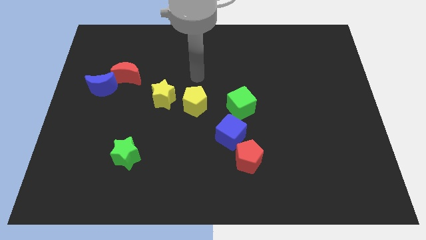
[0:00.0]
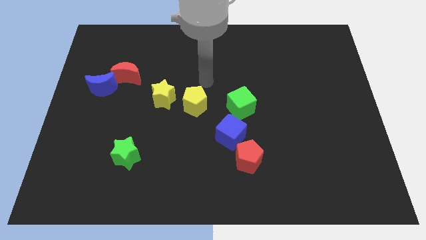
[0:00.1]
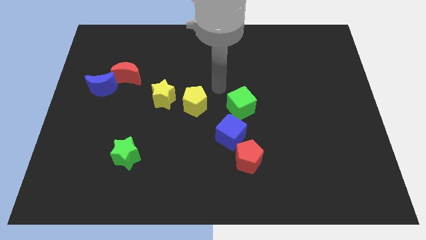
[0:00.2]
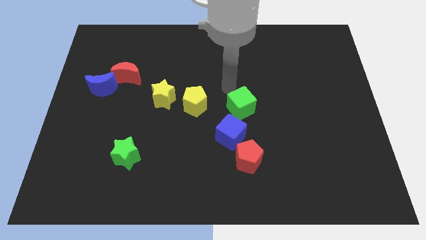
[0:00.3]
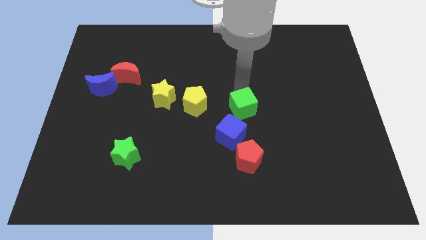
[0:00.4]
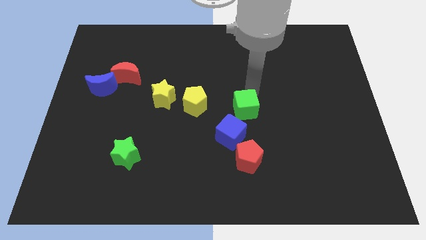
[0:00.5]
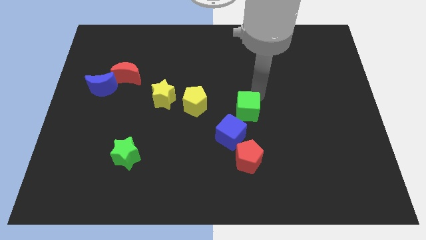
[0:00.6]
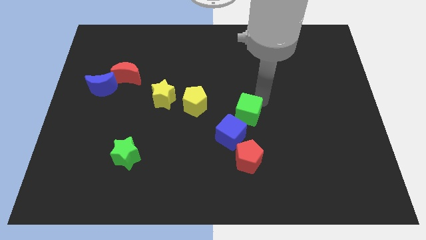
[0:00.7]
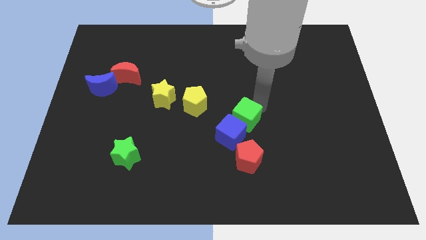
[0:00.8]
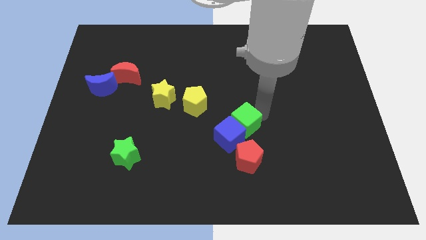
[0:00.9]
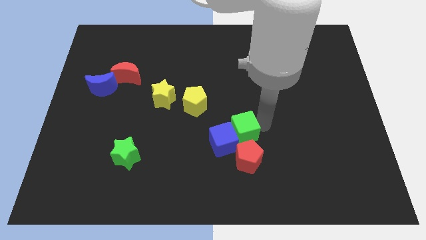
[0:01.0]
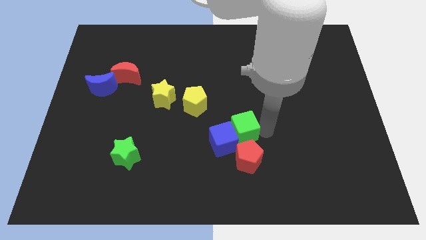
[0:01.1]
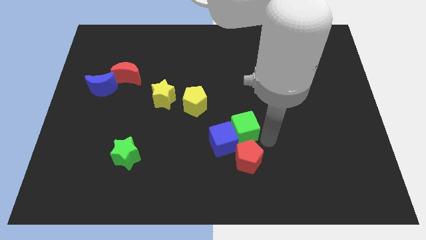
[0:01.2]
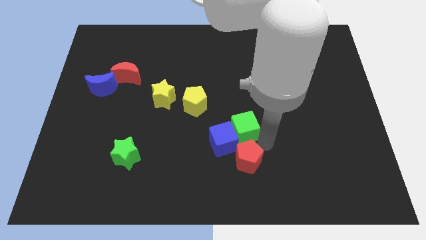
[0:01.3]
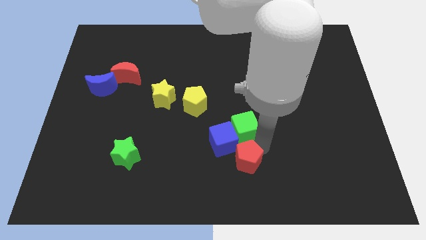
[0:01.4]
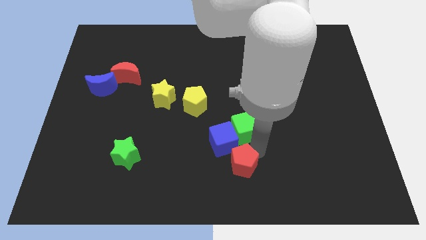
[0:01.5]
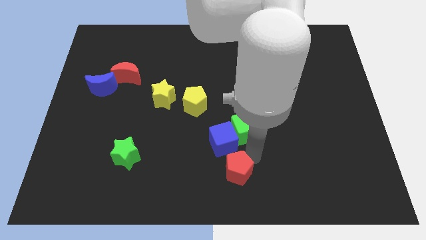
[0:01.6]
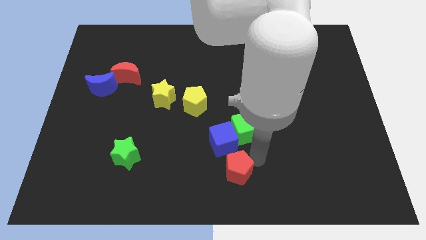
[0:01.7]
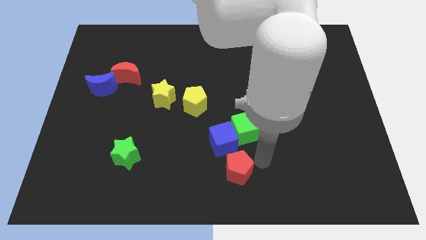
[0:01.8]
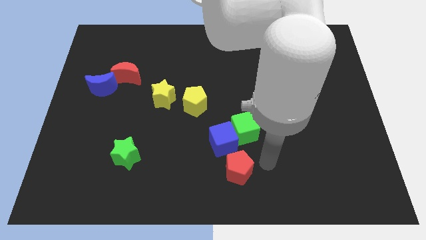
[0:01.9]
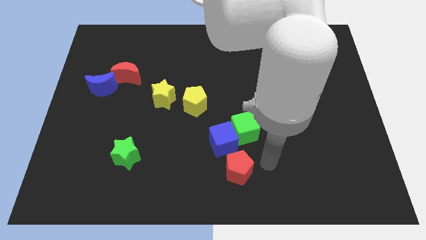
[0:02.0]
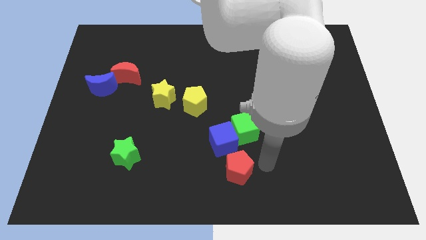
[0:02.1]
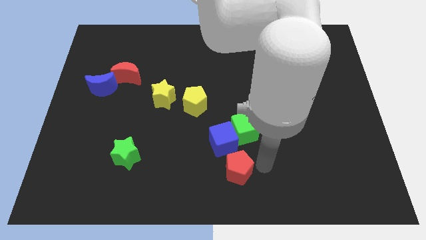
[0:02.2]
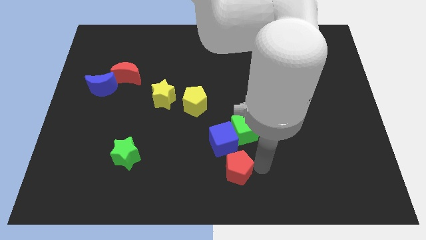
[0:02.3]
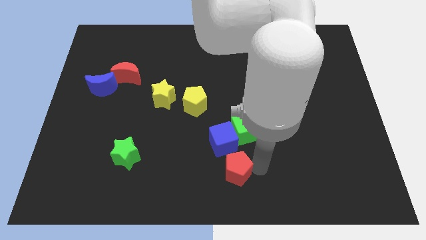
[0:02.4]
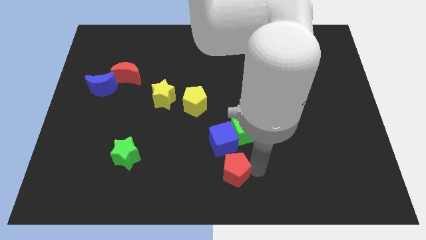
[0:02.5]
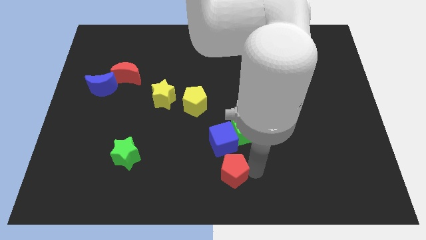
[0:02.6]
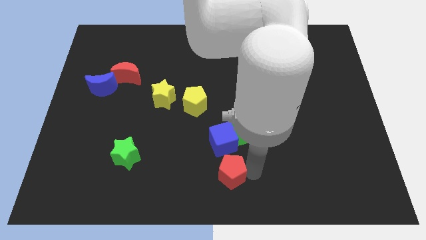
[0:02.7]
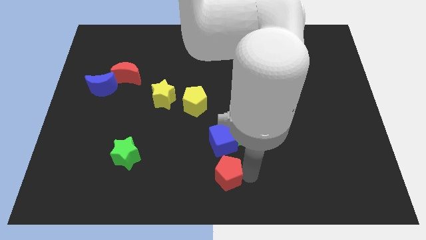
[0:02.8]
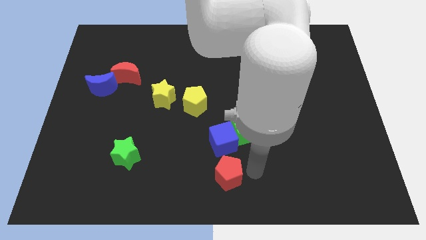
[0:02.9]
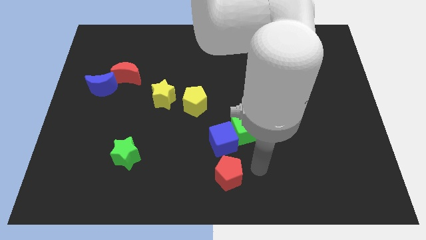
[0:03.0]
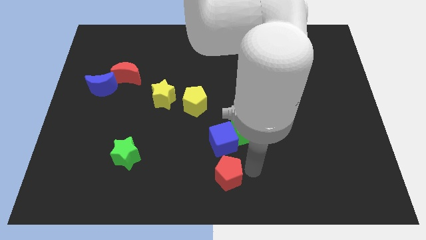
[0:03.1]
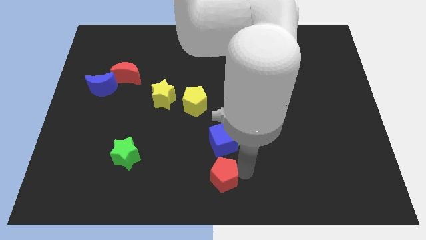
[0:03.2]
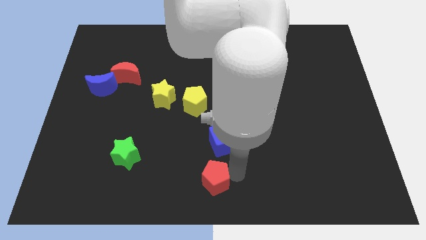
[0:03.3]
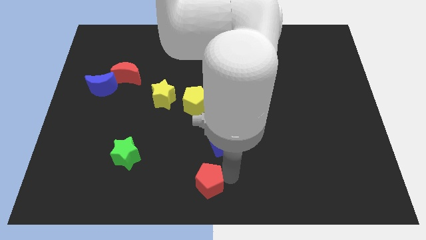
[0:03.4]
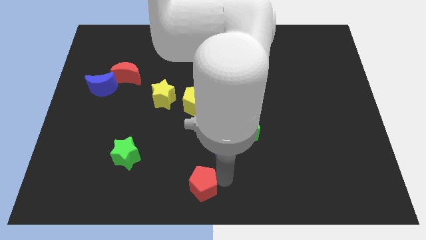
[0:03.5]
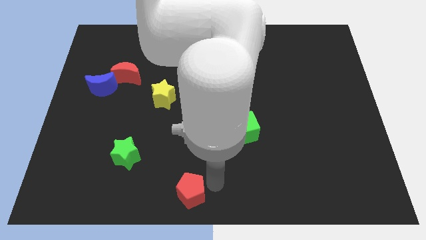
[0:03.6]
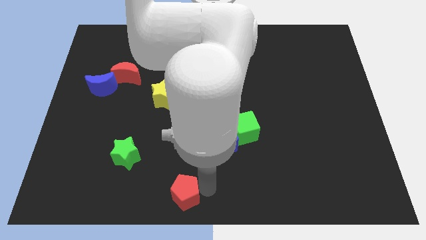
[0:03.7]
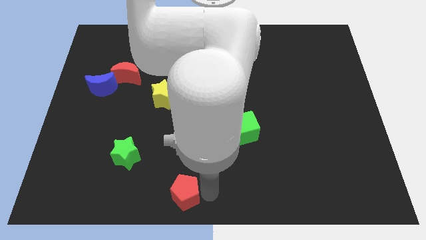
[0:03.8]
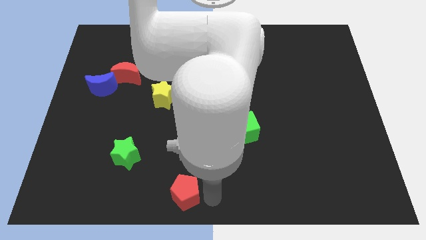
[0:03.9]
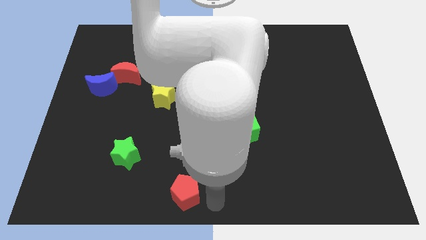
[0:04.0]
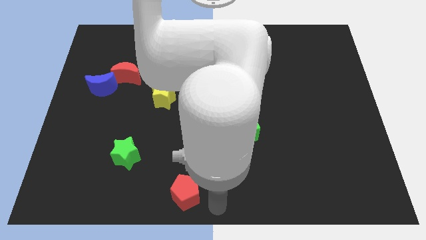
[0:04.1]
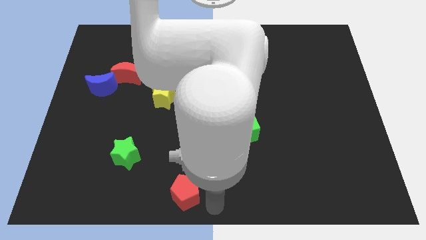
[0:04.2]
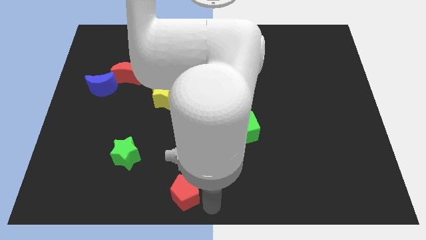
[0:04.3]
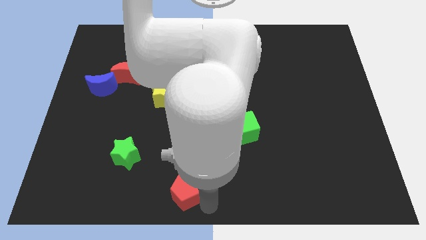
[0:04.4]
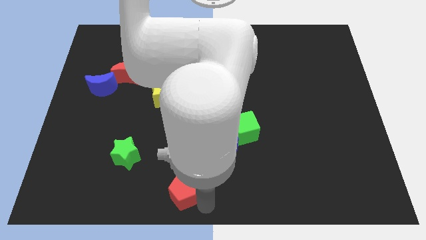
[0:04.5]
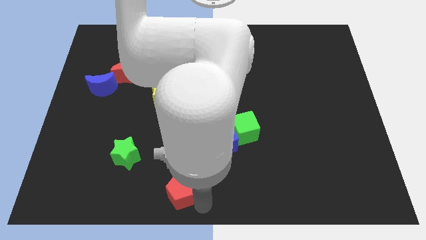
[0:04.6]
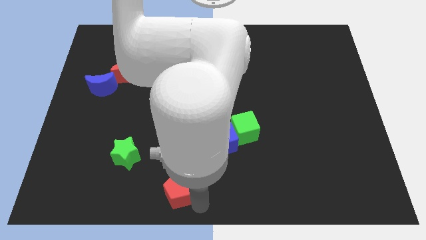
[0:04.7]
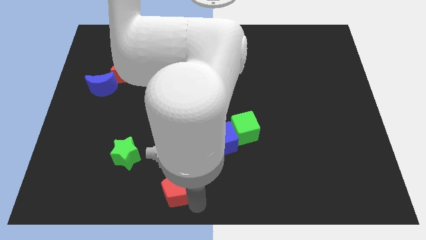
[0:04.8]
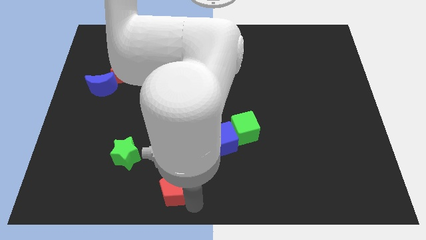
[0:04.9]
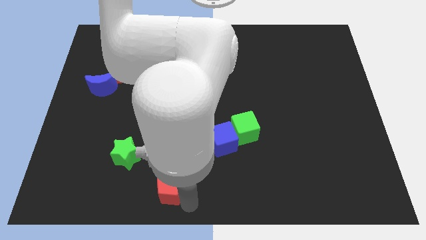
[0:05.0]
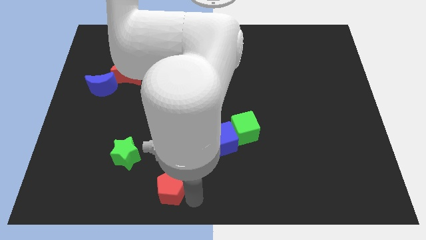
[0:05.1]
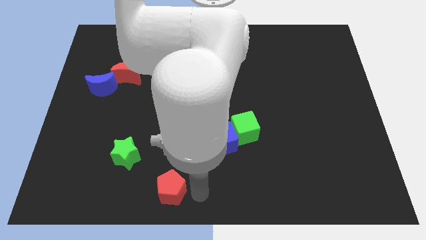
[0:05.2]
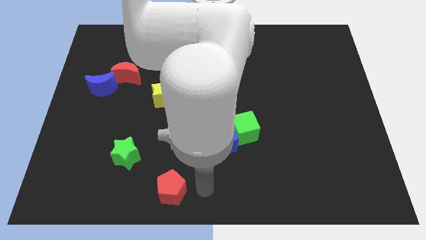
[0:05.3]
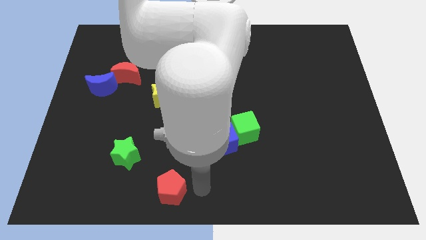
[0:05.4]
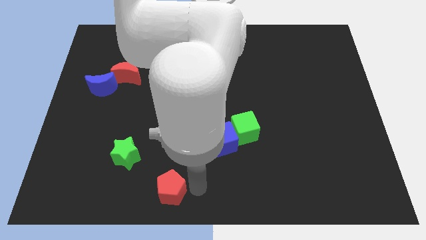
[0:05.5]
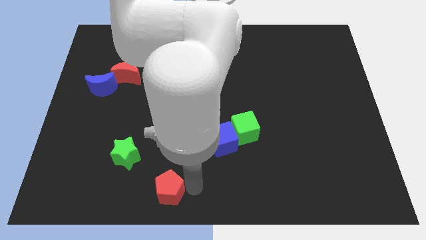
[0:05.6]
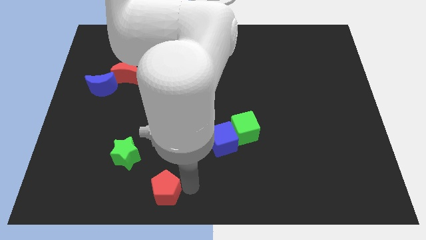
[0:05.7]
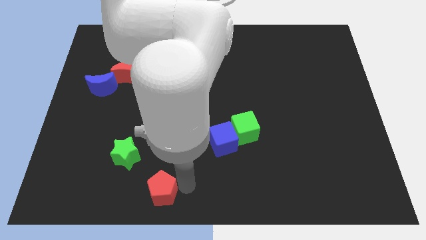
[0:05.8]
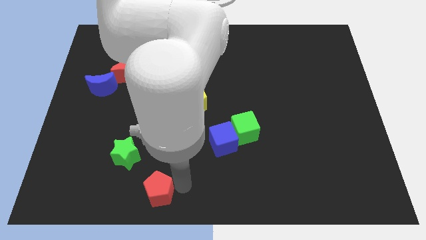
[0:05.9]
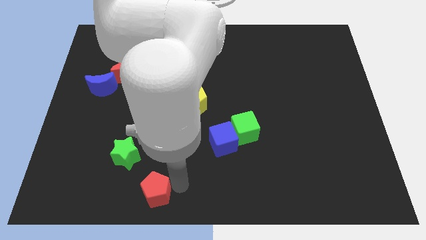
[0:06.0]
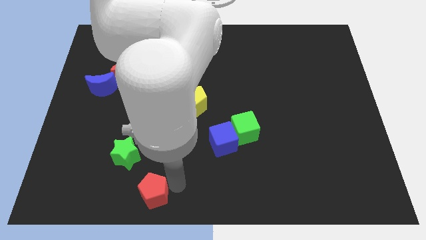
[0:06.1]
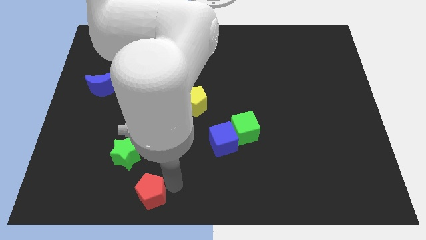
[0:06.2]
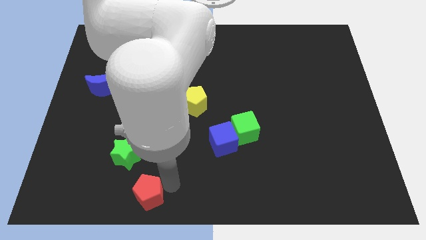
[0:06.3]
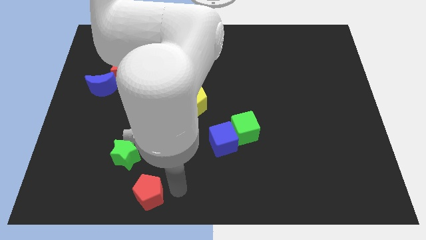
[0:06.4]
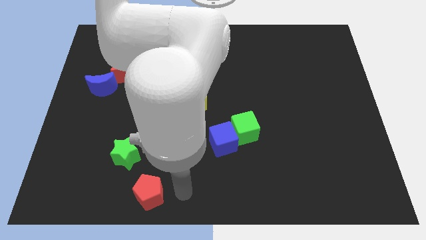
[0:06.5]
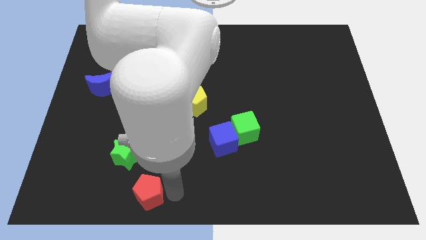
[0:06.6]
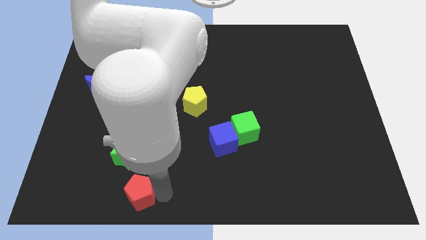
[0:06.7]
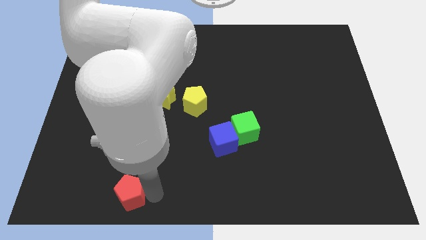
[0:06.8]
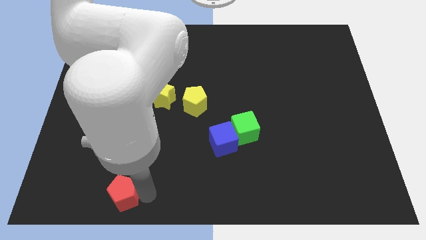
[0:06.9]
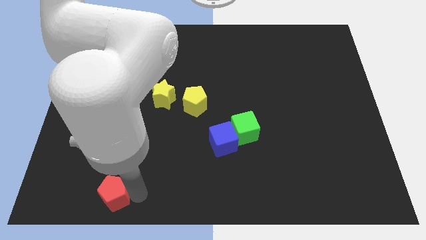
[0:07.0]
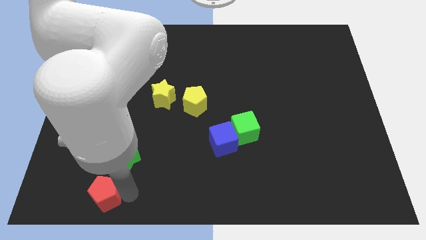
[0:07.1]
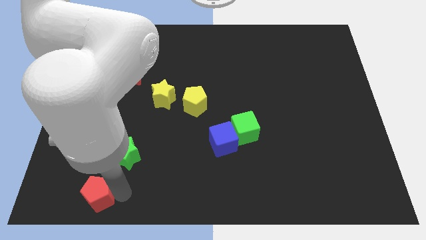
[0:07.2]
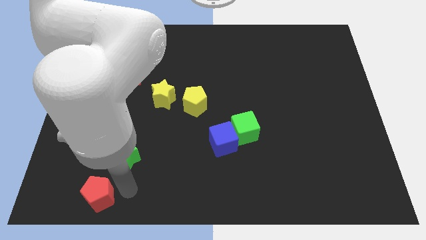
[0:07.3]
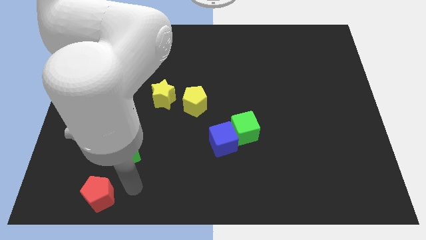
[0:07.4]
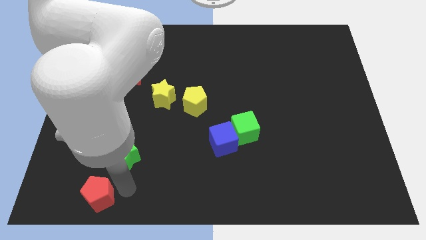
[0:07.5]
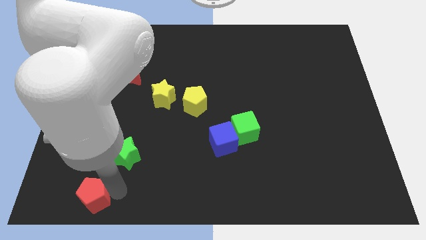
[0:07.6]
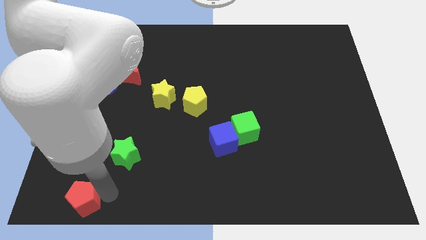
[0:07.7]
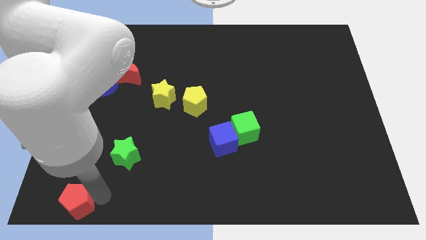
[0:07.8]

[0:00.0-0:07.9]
put the red pentagon to the bottom left corner

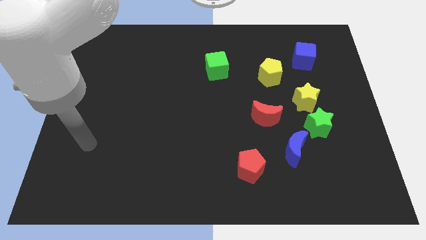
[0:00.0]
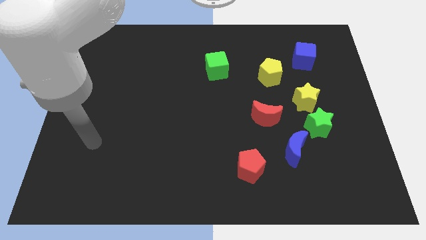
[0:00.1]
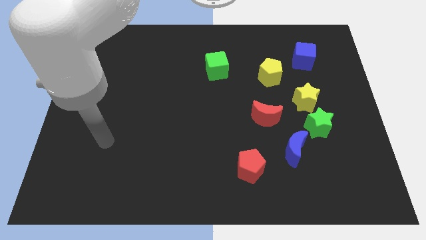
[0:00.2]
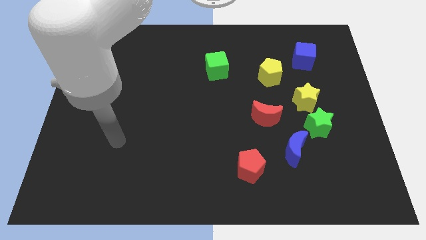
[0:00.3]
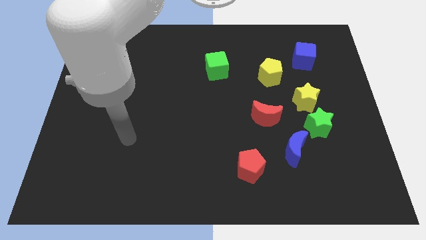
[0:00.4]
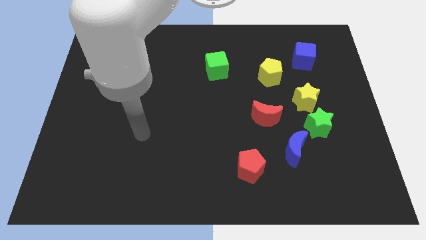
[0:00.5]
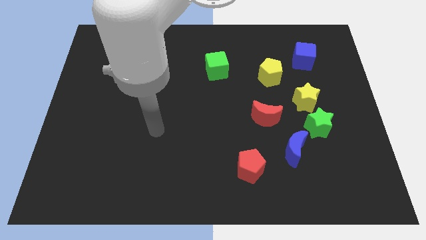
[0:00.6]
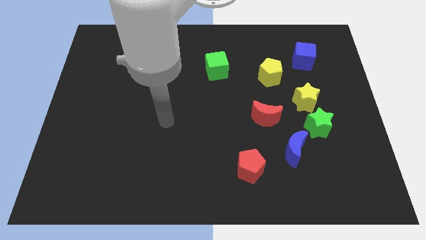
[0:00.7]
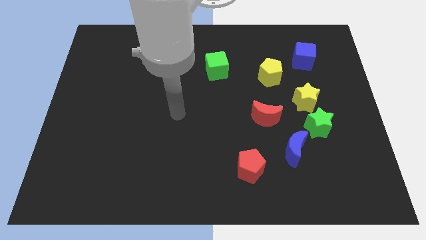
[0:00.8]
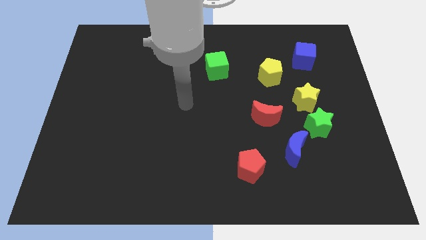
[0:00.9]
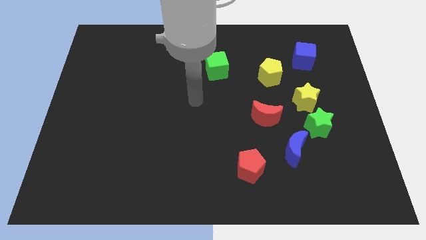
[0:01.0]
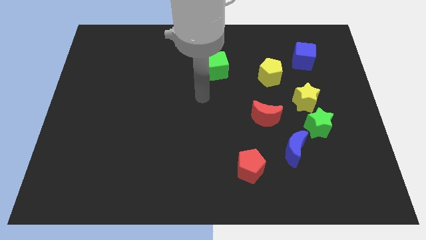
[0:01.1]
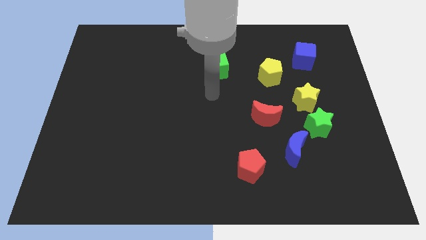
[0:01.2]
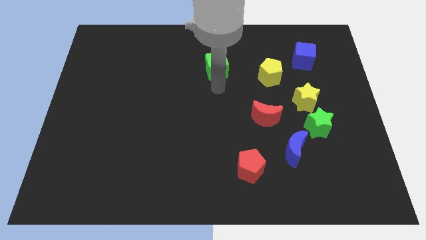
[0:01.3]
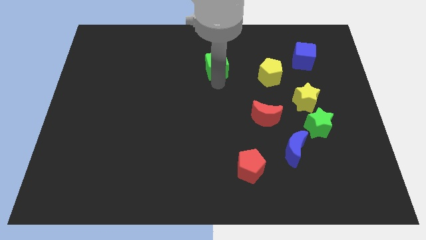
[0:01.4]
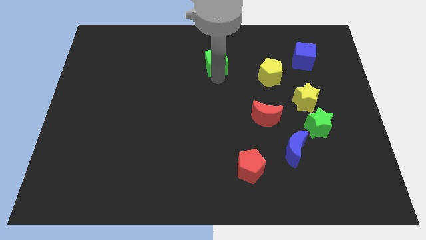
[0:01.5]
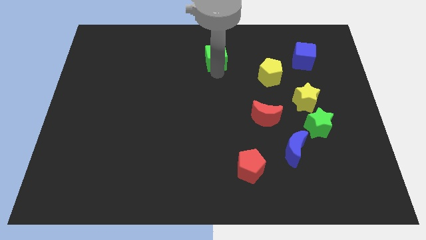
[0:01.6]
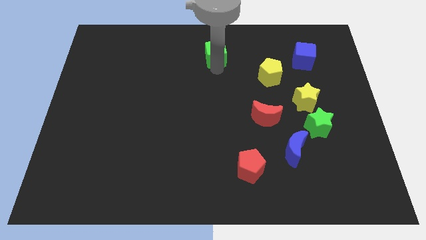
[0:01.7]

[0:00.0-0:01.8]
move the green cube to the top side
